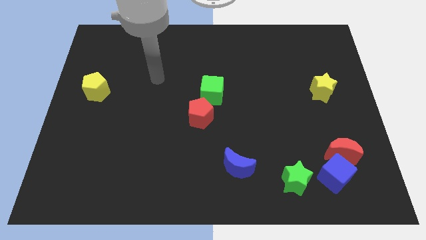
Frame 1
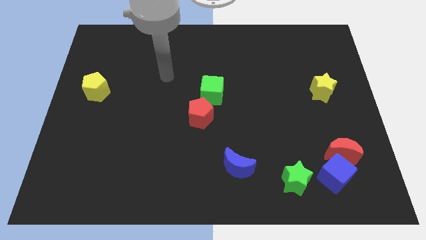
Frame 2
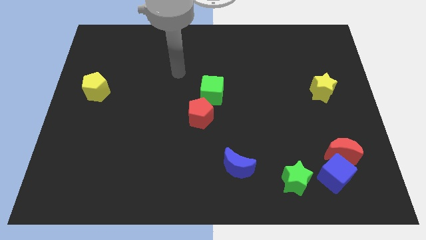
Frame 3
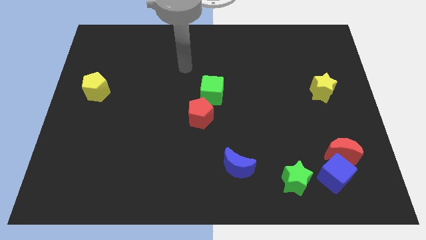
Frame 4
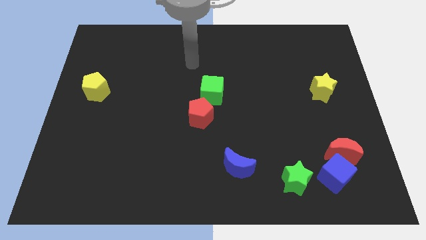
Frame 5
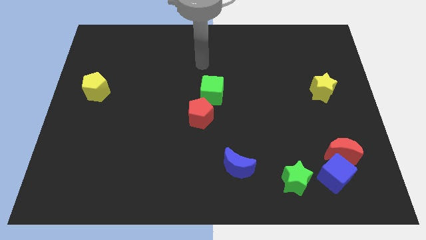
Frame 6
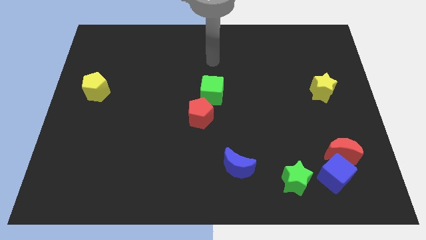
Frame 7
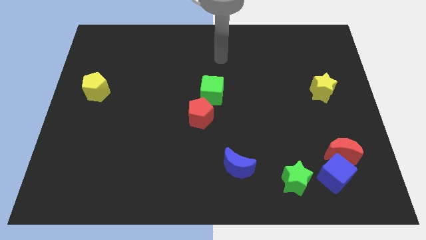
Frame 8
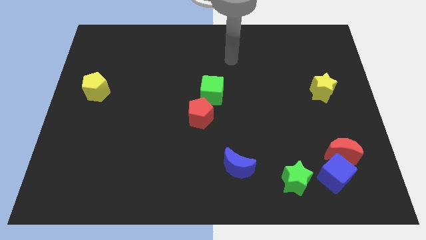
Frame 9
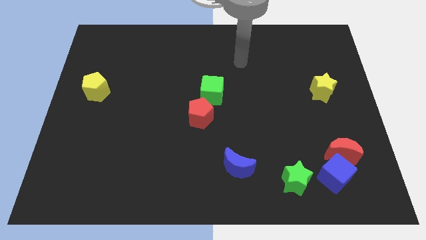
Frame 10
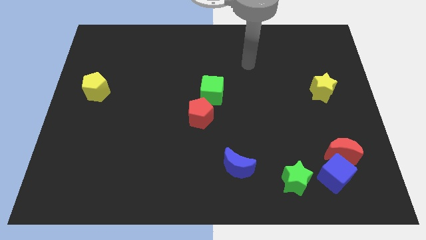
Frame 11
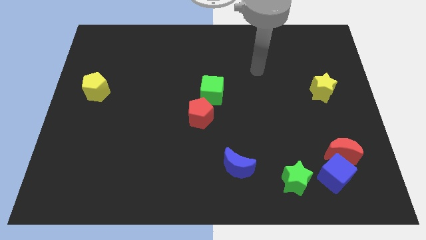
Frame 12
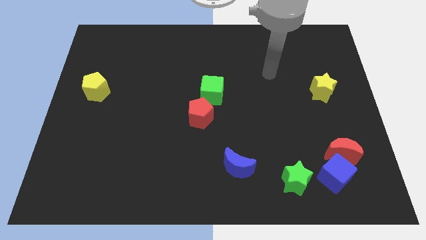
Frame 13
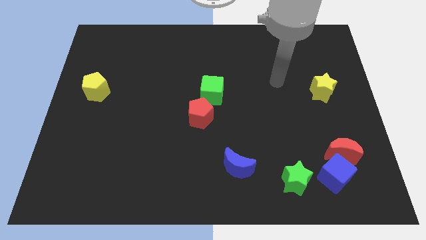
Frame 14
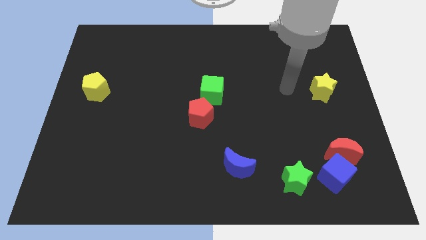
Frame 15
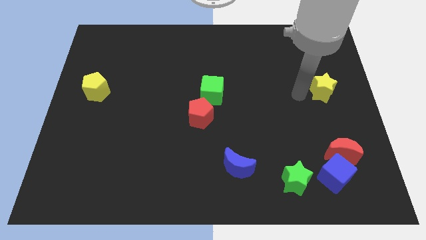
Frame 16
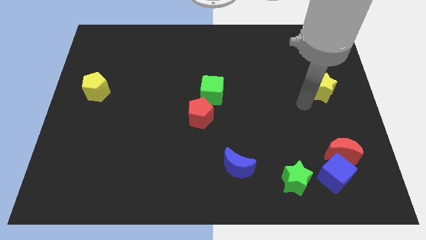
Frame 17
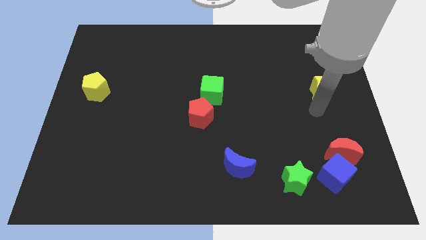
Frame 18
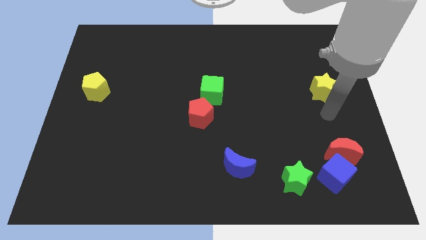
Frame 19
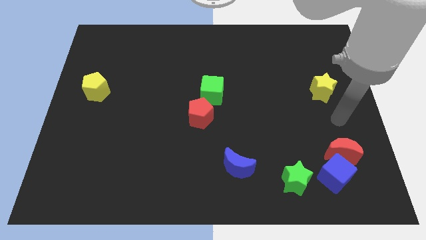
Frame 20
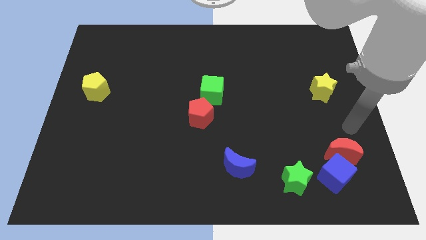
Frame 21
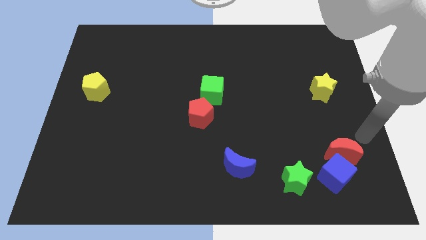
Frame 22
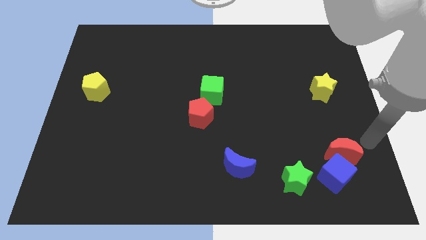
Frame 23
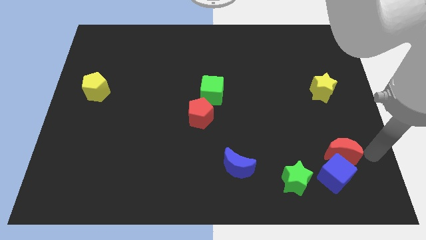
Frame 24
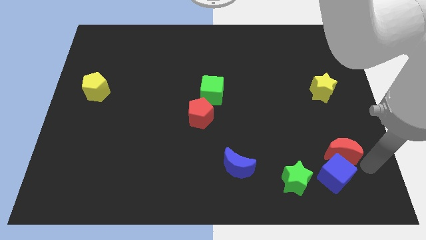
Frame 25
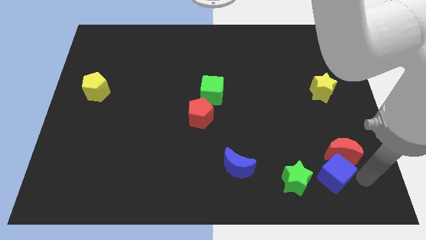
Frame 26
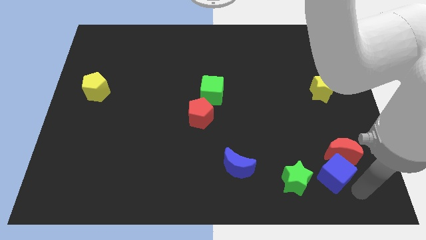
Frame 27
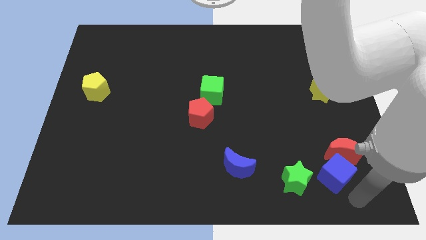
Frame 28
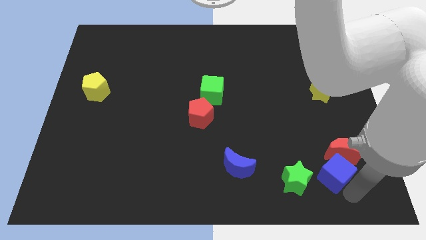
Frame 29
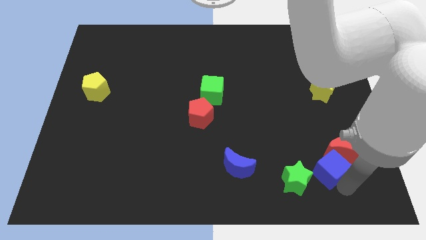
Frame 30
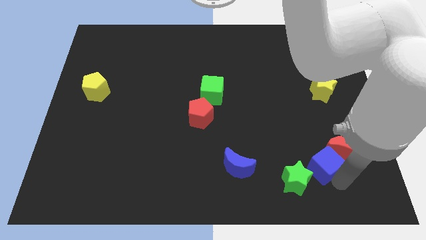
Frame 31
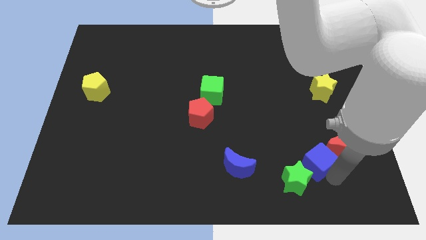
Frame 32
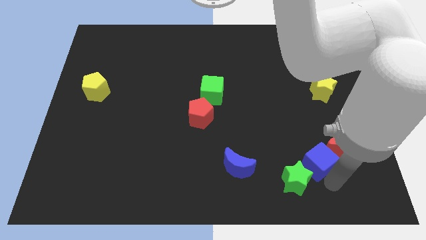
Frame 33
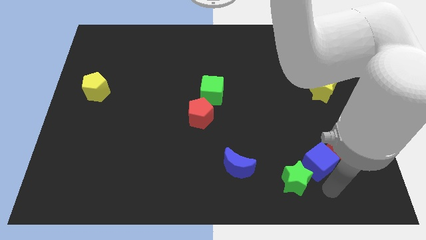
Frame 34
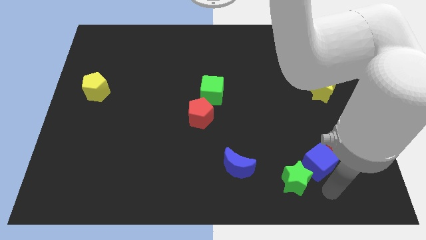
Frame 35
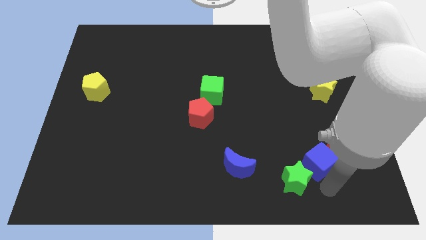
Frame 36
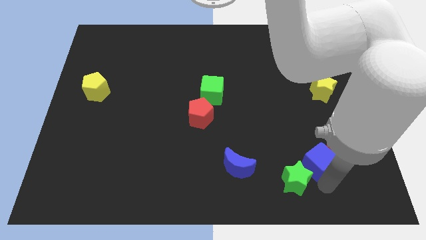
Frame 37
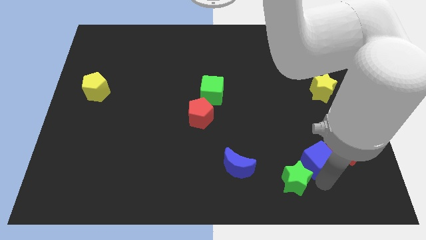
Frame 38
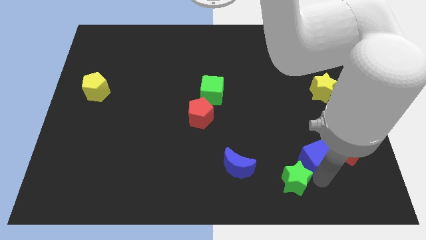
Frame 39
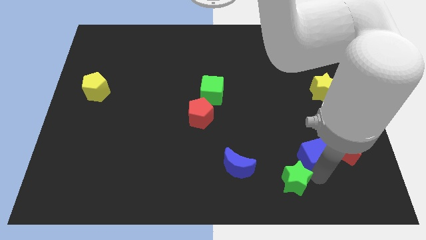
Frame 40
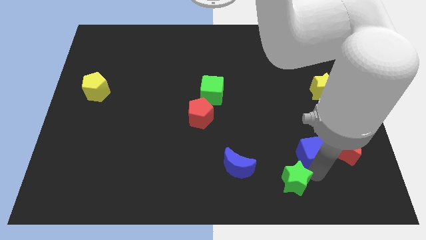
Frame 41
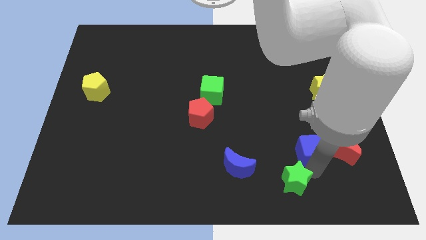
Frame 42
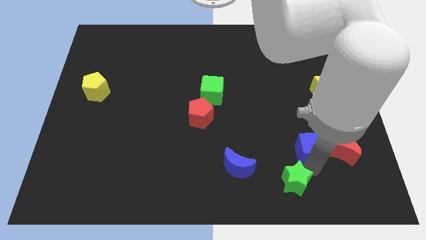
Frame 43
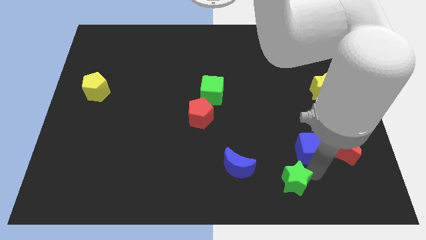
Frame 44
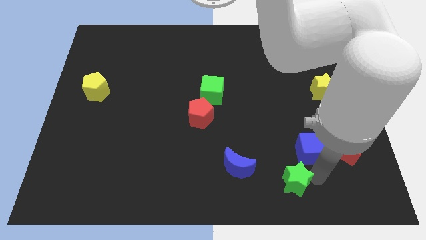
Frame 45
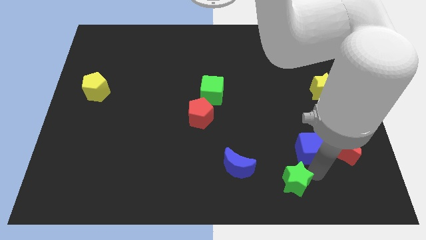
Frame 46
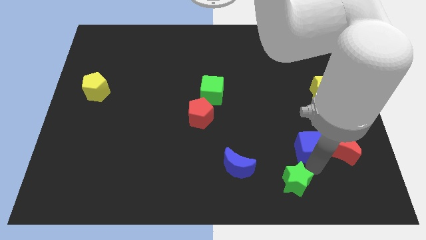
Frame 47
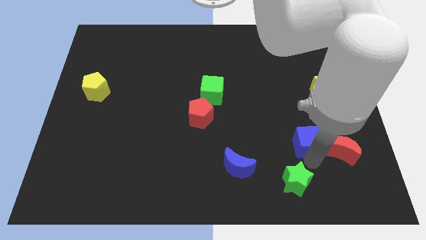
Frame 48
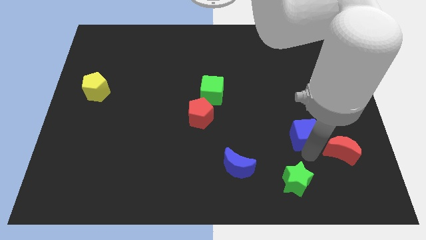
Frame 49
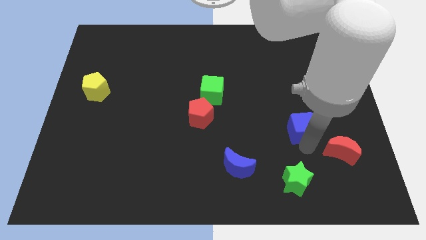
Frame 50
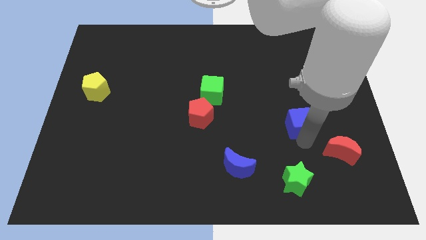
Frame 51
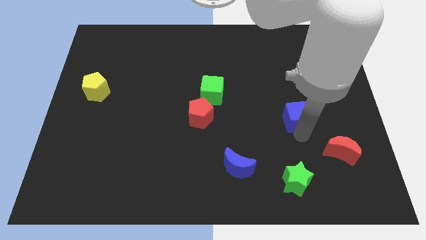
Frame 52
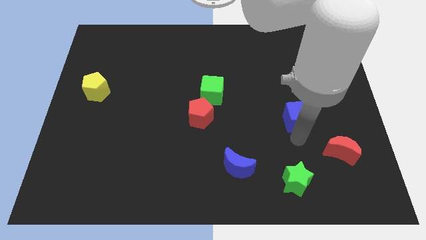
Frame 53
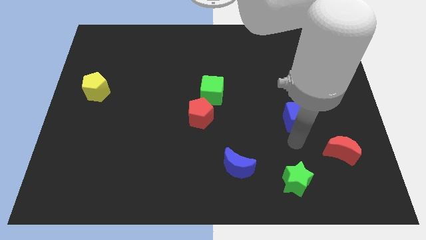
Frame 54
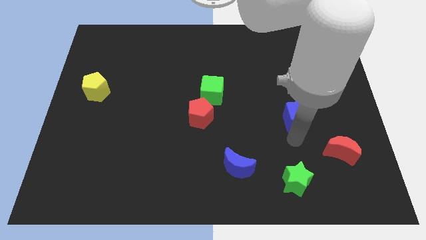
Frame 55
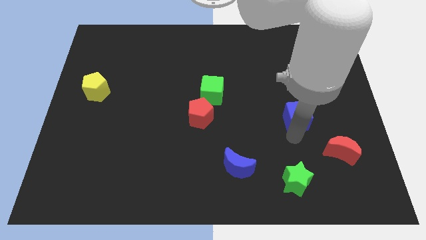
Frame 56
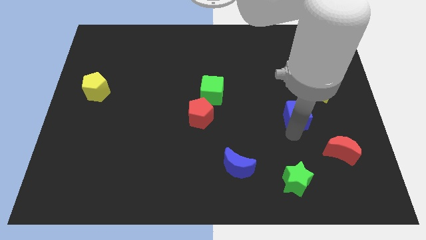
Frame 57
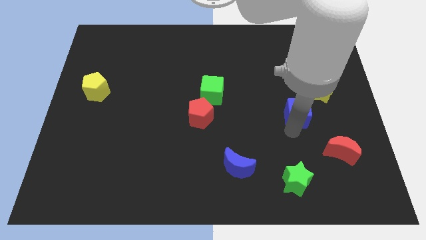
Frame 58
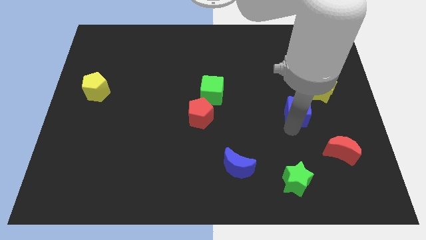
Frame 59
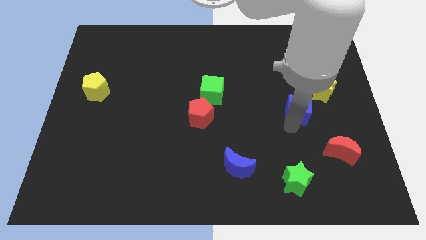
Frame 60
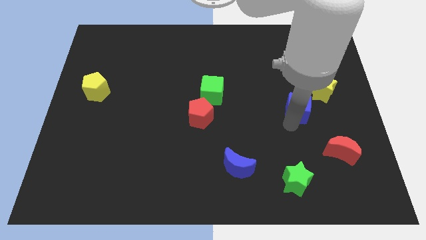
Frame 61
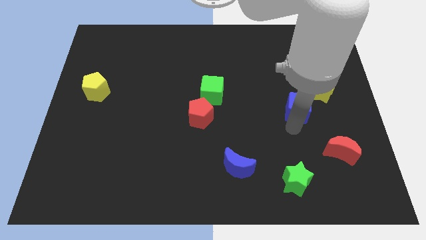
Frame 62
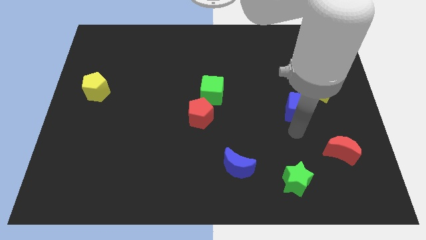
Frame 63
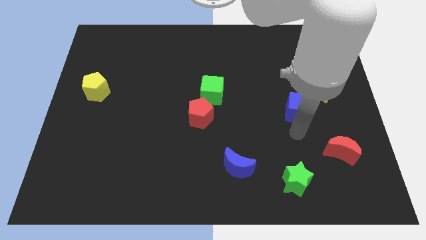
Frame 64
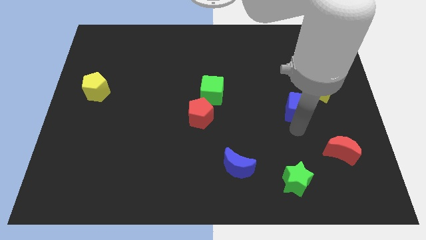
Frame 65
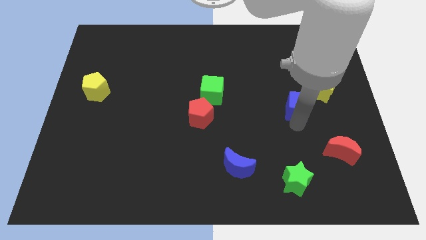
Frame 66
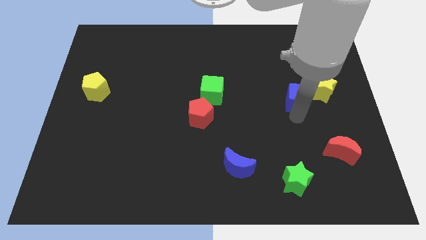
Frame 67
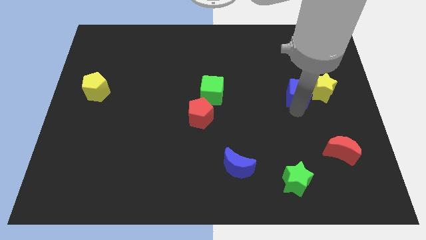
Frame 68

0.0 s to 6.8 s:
move the blue cube up

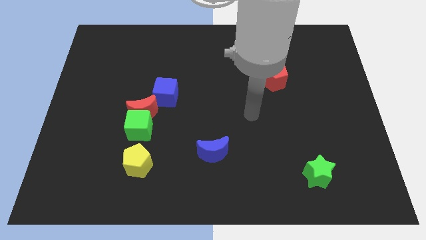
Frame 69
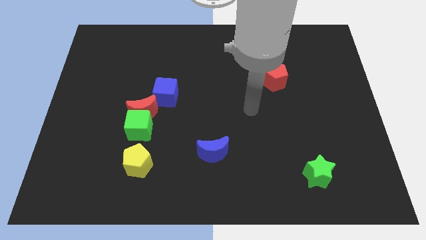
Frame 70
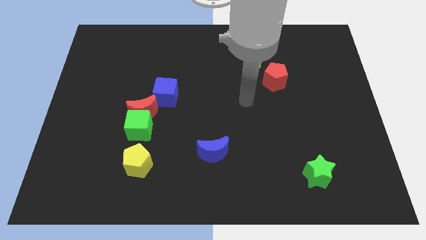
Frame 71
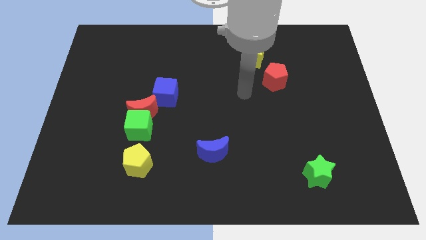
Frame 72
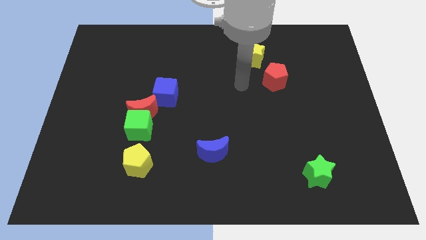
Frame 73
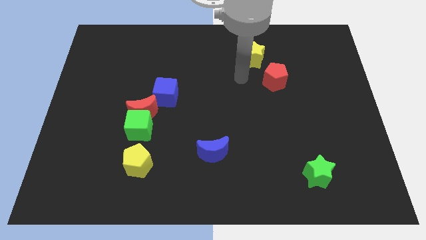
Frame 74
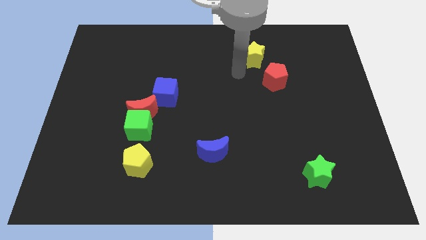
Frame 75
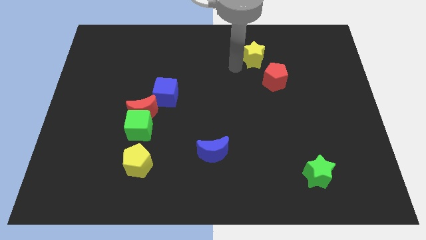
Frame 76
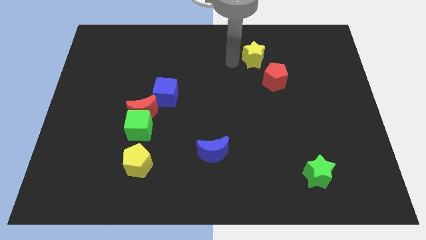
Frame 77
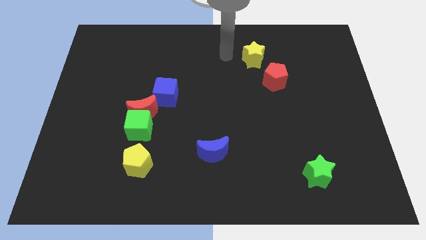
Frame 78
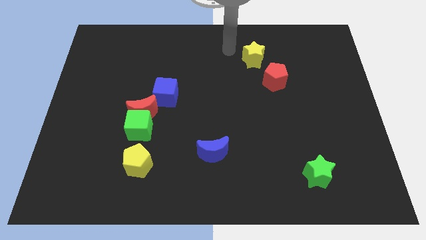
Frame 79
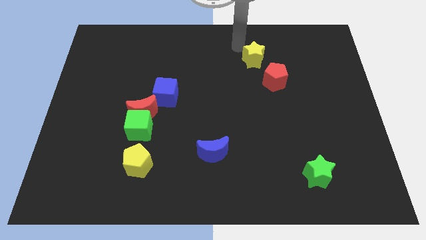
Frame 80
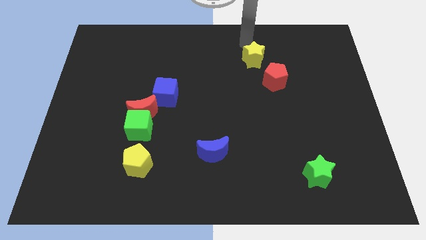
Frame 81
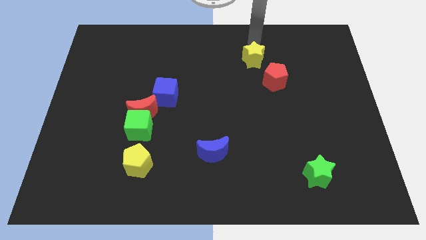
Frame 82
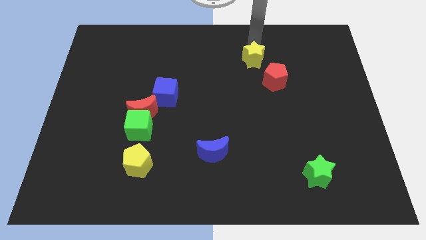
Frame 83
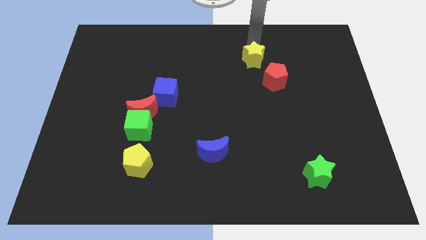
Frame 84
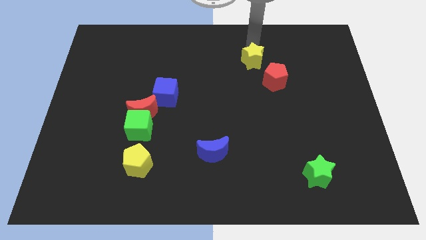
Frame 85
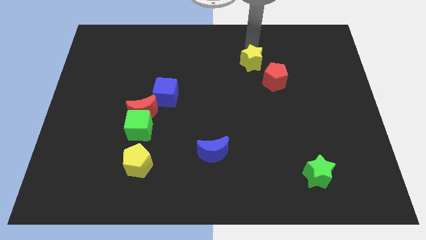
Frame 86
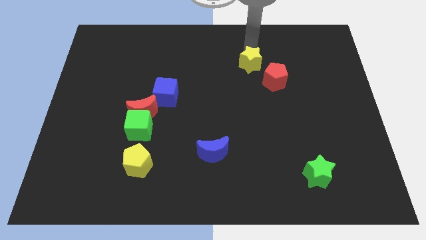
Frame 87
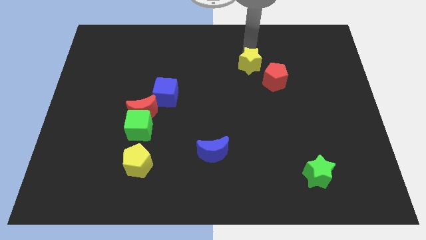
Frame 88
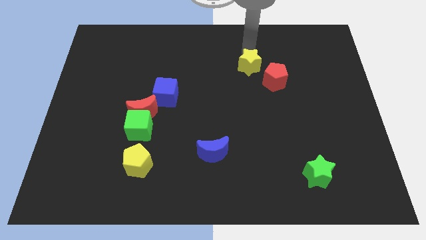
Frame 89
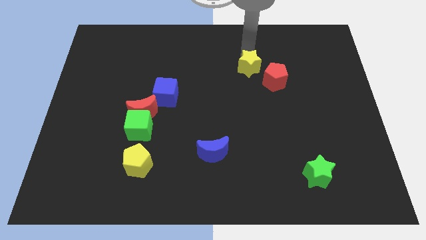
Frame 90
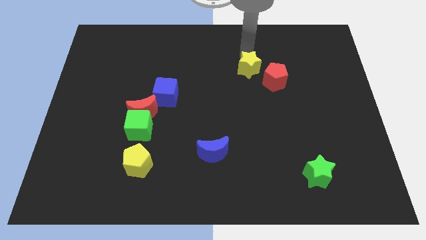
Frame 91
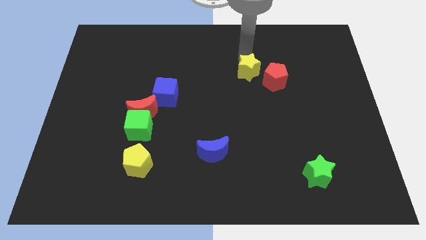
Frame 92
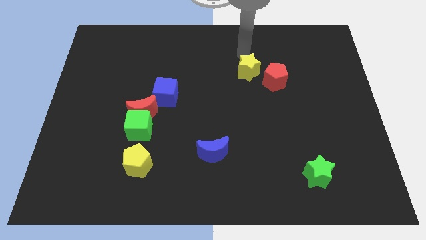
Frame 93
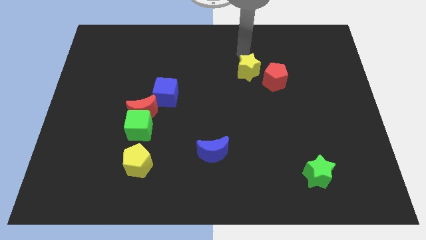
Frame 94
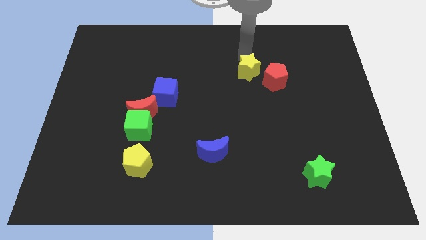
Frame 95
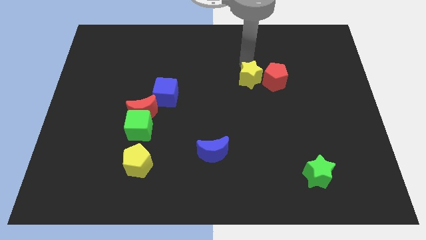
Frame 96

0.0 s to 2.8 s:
push the yellow star downwards somewhat
